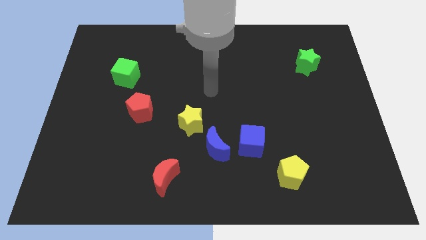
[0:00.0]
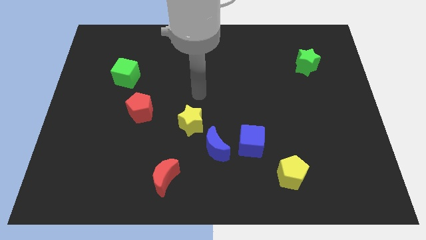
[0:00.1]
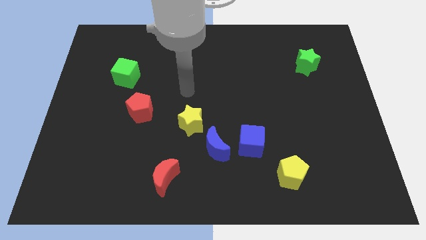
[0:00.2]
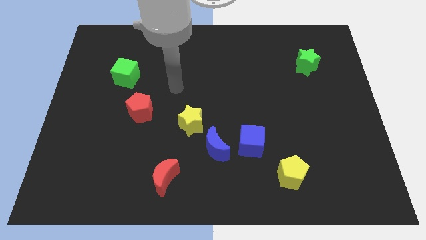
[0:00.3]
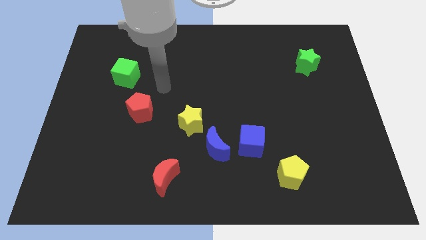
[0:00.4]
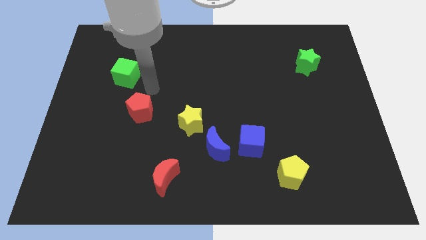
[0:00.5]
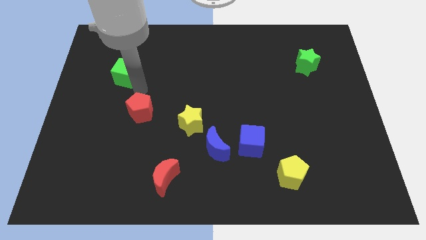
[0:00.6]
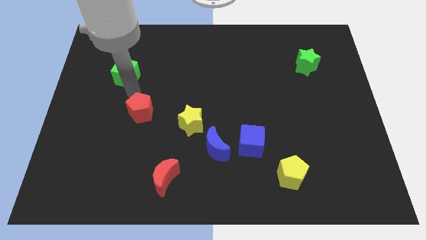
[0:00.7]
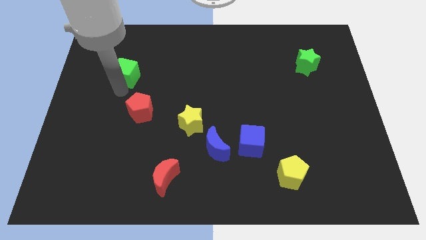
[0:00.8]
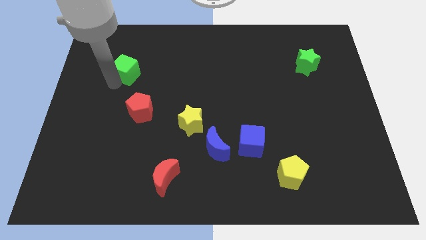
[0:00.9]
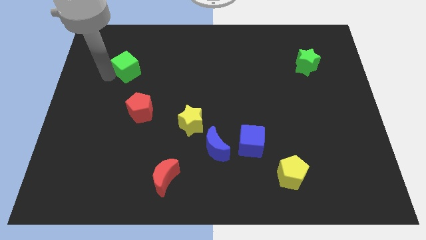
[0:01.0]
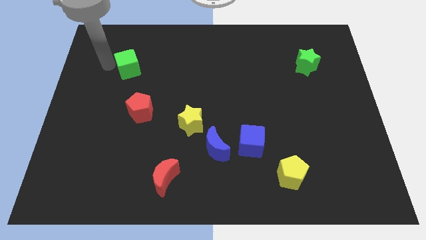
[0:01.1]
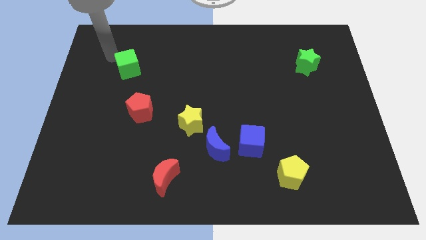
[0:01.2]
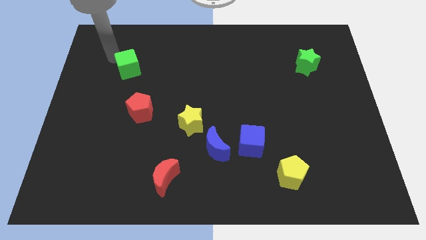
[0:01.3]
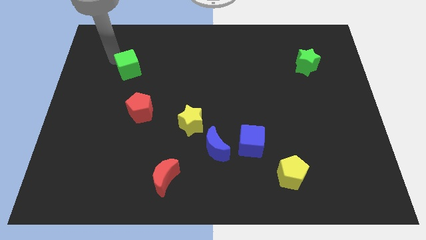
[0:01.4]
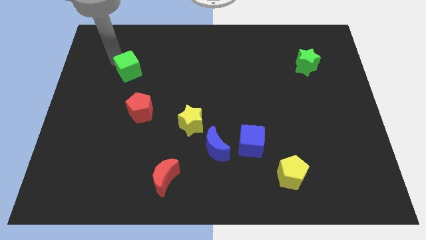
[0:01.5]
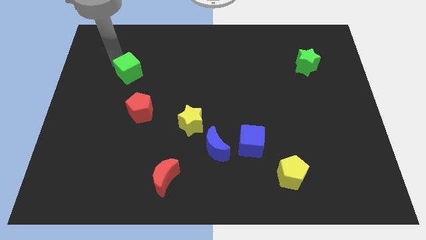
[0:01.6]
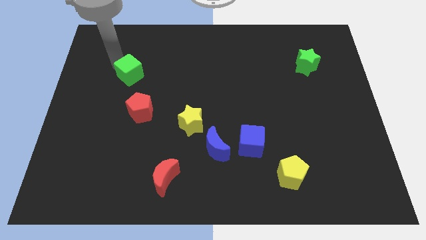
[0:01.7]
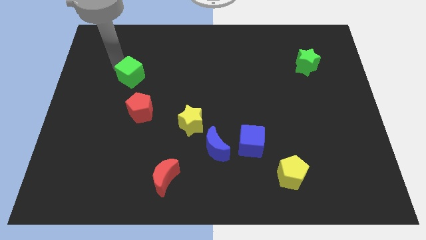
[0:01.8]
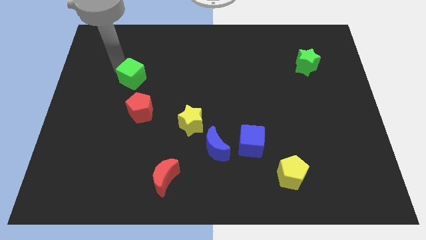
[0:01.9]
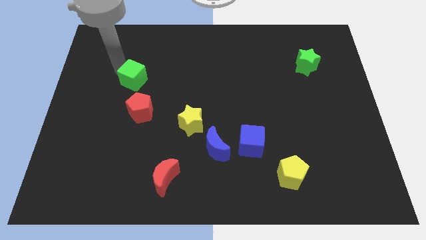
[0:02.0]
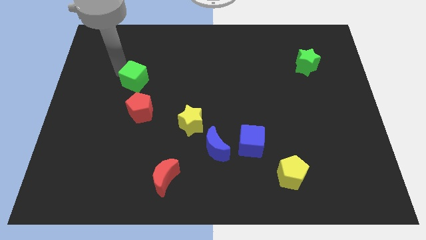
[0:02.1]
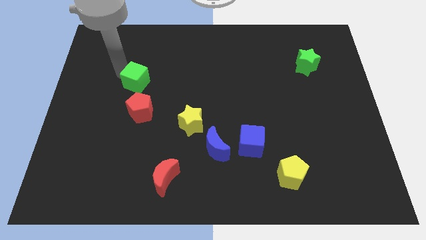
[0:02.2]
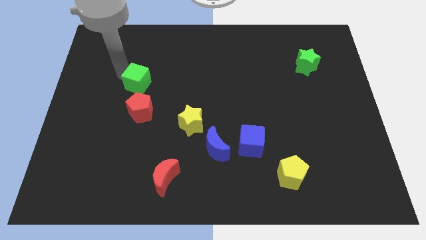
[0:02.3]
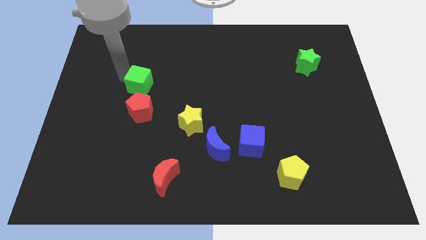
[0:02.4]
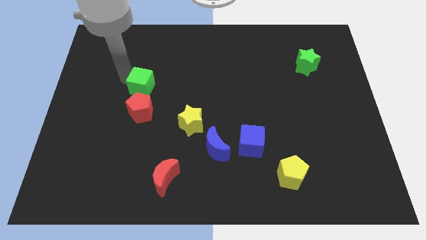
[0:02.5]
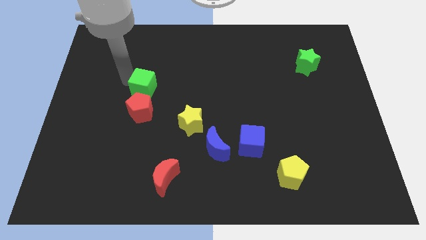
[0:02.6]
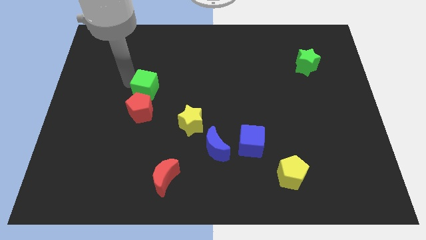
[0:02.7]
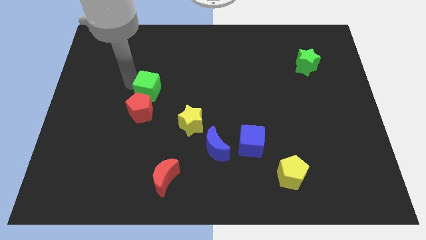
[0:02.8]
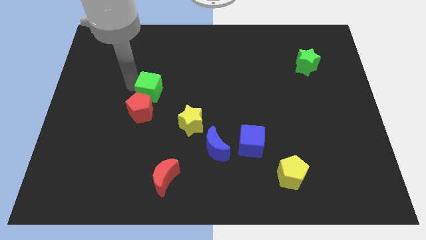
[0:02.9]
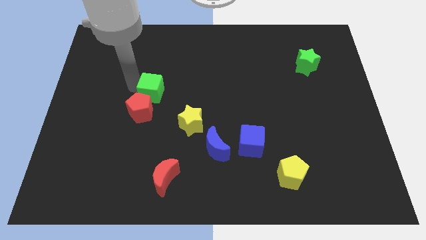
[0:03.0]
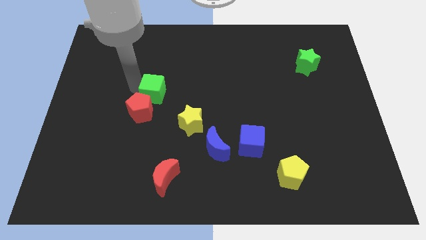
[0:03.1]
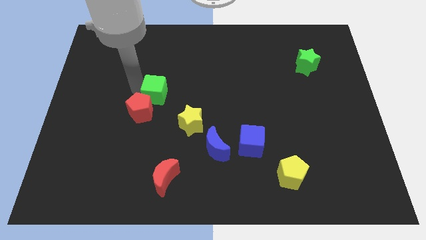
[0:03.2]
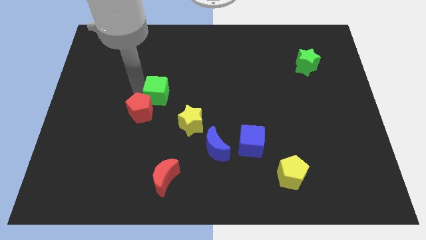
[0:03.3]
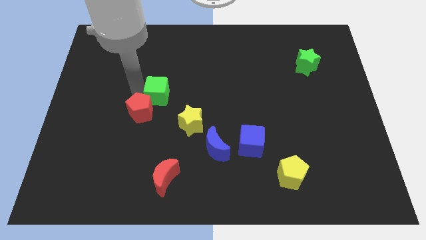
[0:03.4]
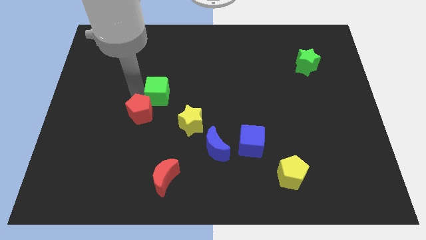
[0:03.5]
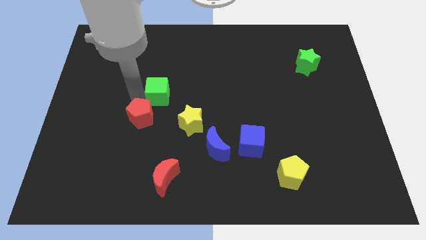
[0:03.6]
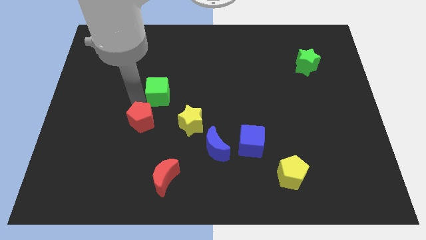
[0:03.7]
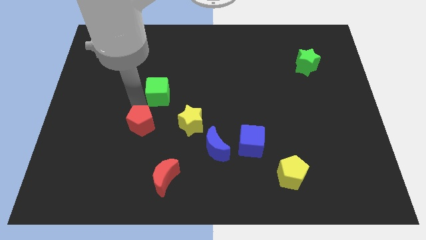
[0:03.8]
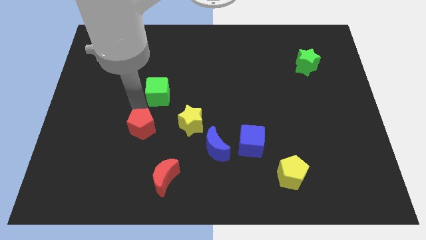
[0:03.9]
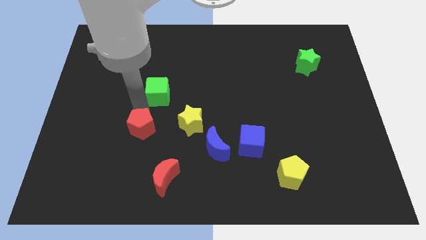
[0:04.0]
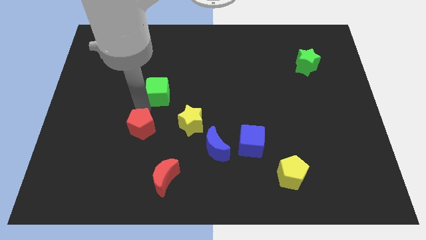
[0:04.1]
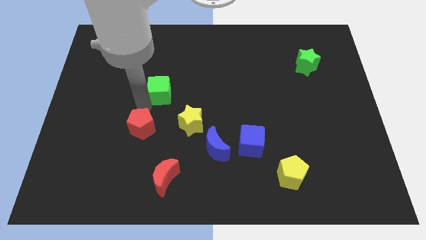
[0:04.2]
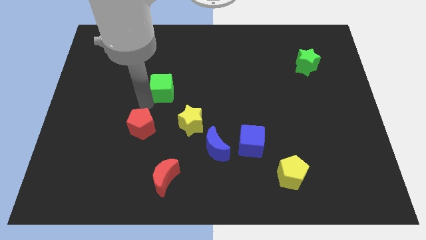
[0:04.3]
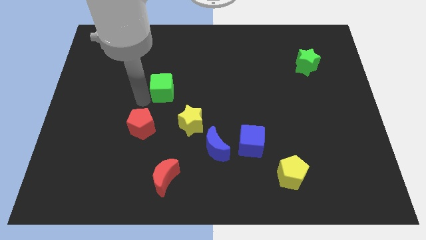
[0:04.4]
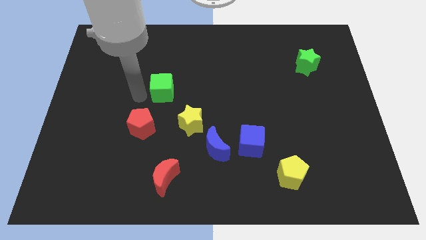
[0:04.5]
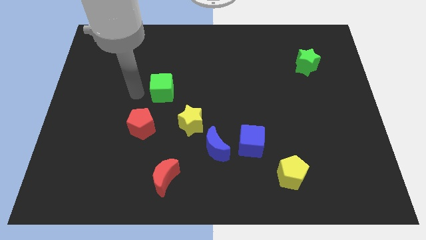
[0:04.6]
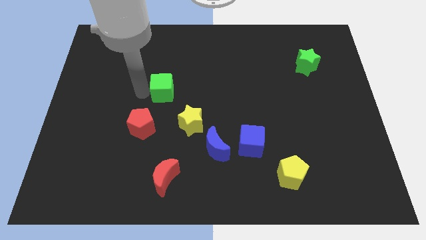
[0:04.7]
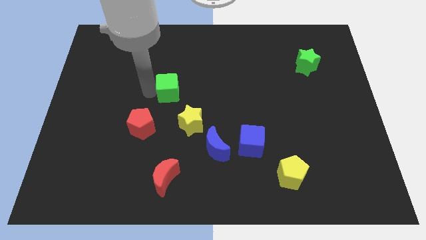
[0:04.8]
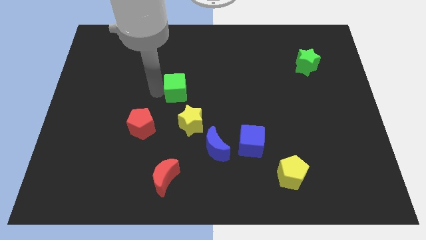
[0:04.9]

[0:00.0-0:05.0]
put the green cube to the top side of the yellow star

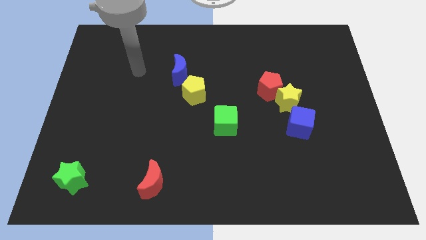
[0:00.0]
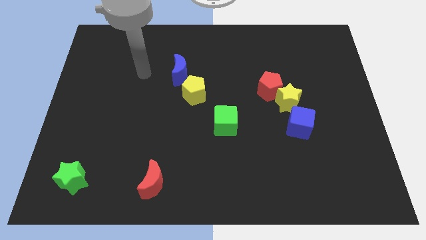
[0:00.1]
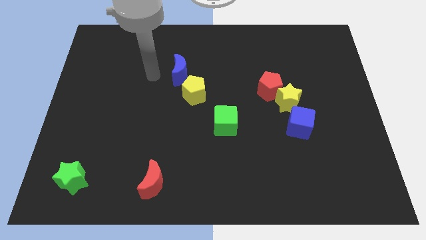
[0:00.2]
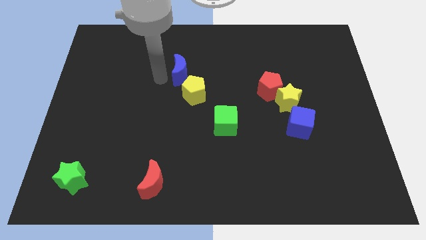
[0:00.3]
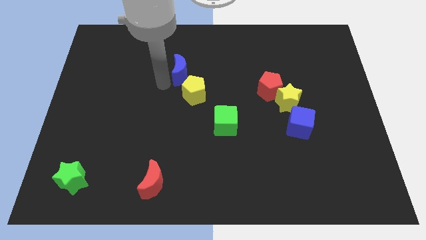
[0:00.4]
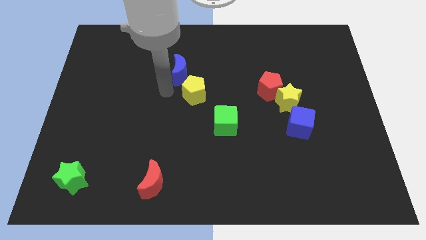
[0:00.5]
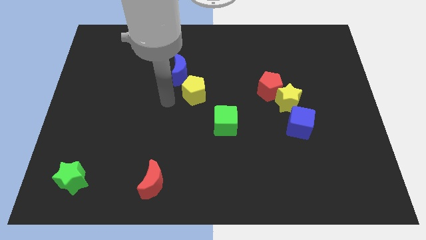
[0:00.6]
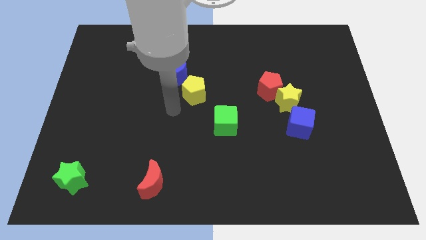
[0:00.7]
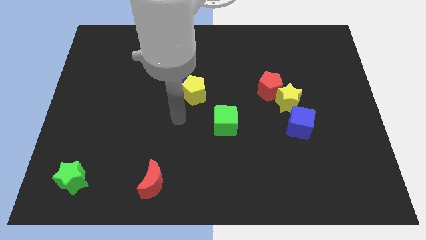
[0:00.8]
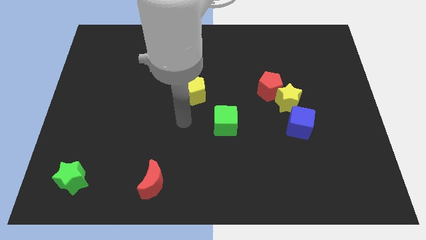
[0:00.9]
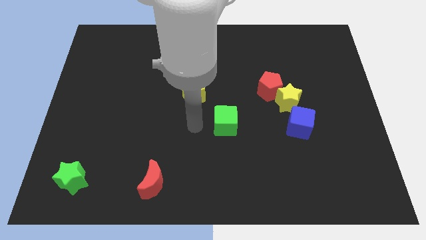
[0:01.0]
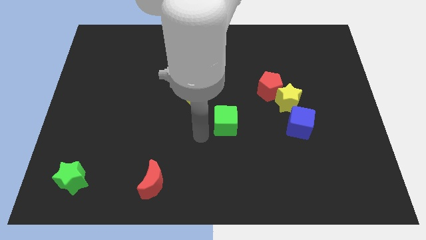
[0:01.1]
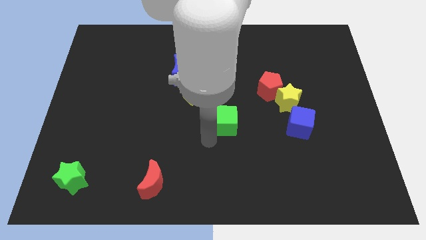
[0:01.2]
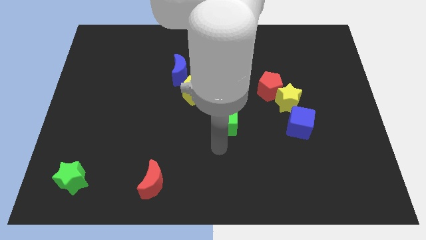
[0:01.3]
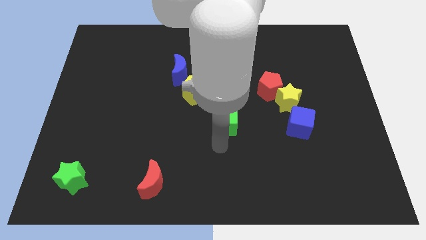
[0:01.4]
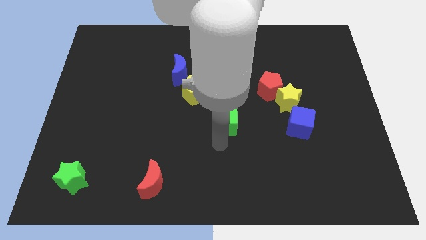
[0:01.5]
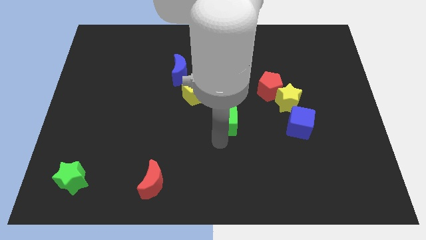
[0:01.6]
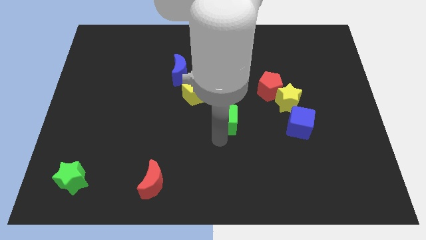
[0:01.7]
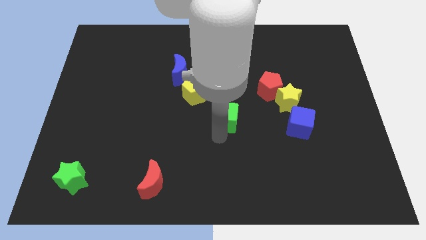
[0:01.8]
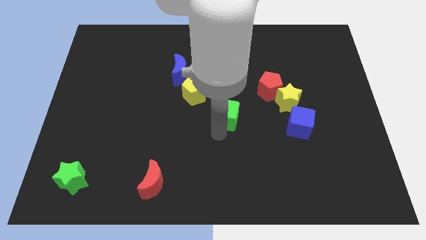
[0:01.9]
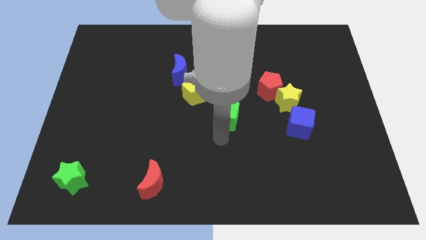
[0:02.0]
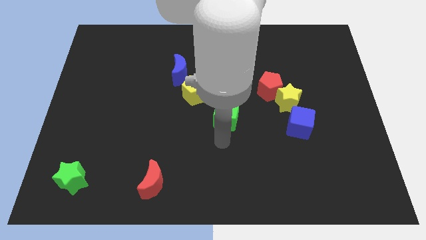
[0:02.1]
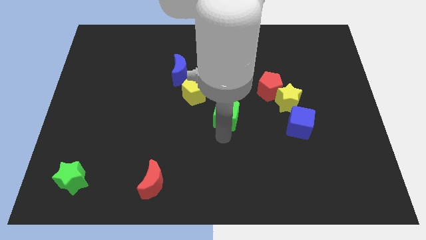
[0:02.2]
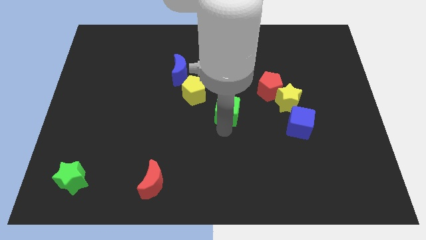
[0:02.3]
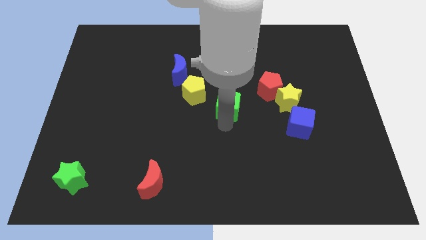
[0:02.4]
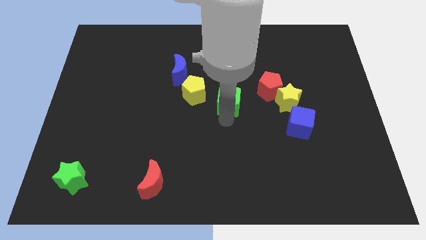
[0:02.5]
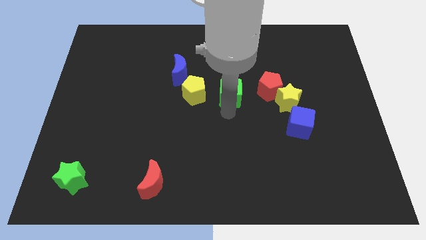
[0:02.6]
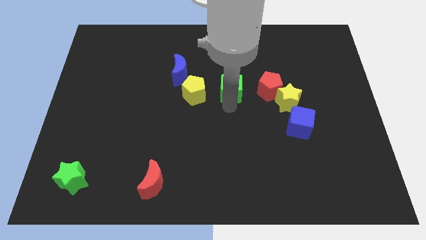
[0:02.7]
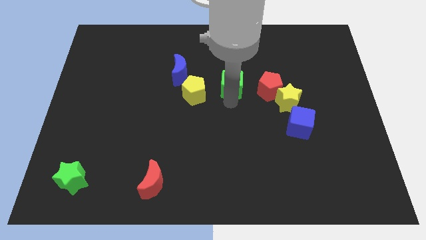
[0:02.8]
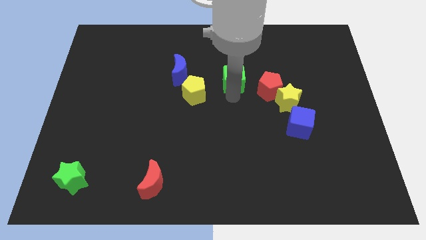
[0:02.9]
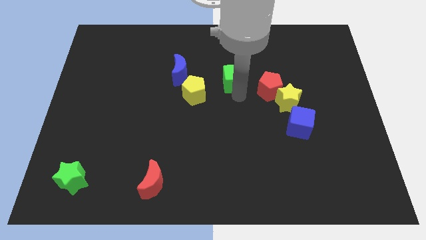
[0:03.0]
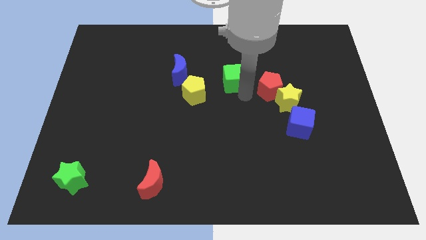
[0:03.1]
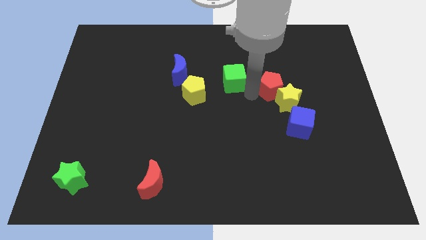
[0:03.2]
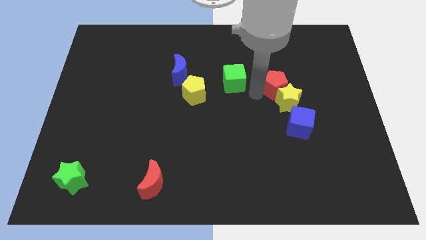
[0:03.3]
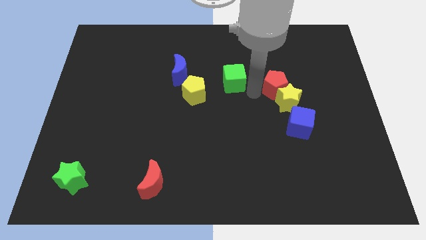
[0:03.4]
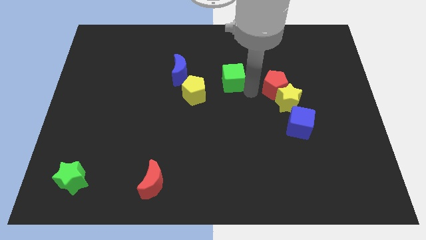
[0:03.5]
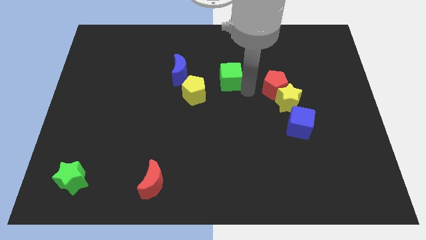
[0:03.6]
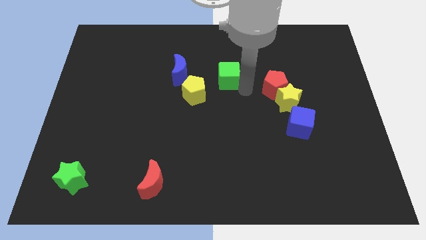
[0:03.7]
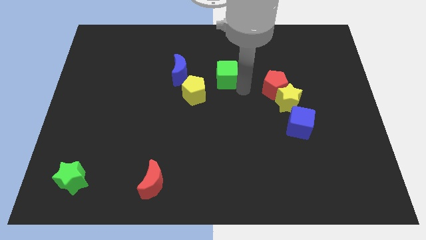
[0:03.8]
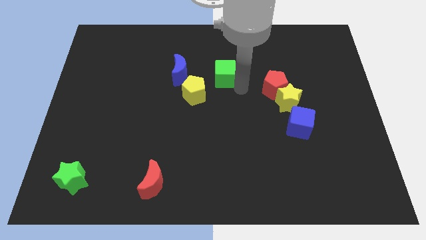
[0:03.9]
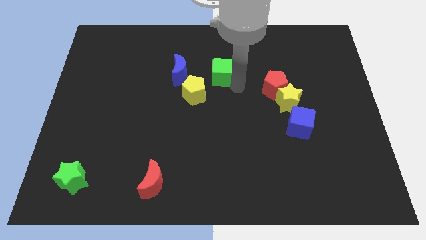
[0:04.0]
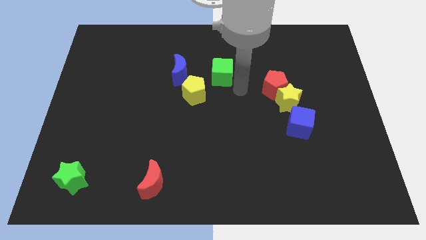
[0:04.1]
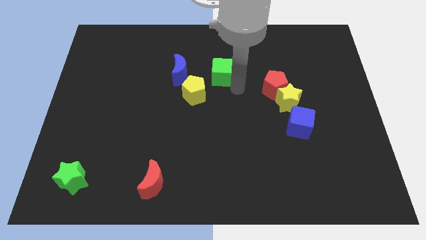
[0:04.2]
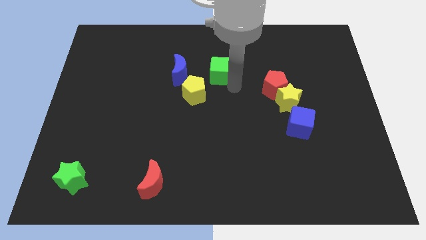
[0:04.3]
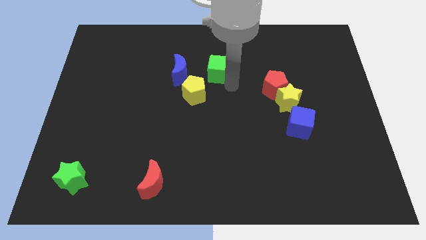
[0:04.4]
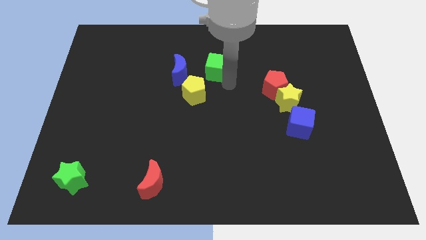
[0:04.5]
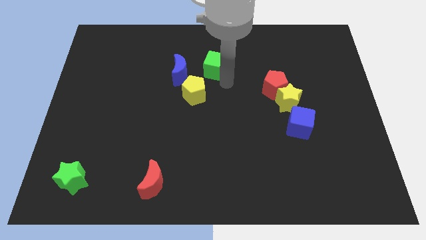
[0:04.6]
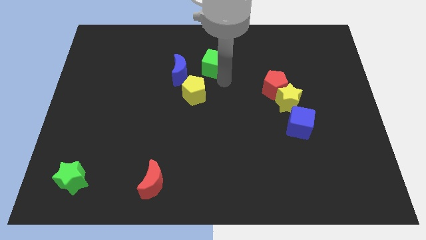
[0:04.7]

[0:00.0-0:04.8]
push the green cube to the top right of the blue moon
